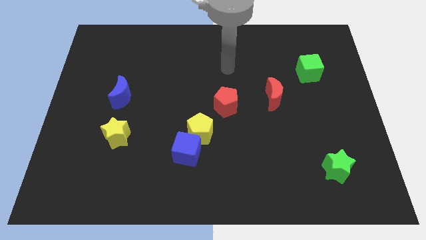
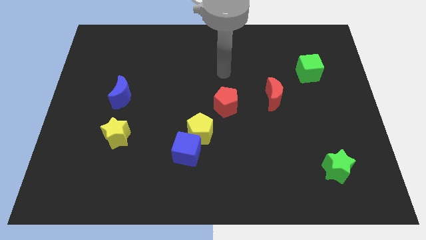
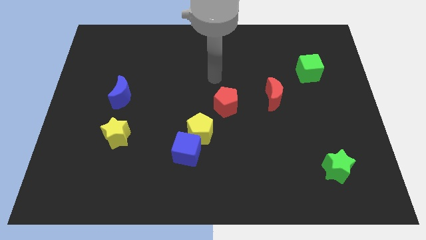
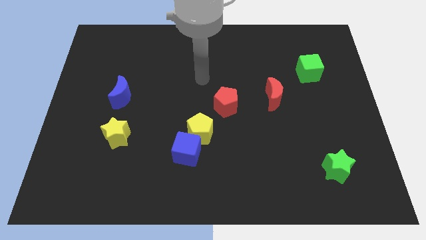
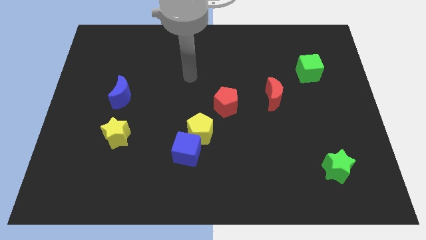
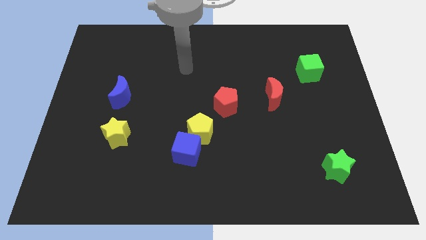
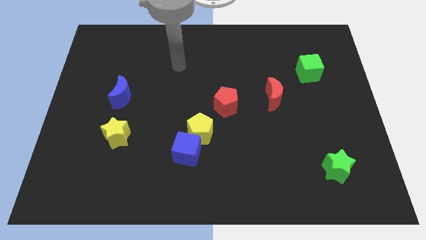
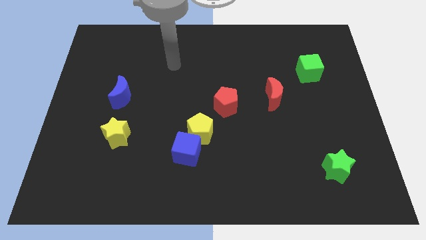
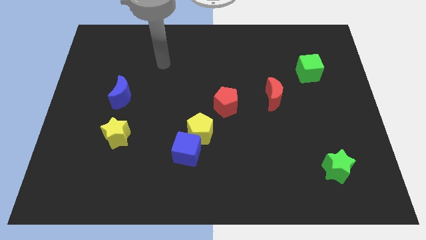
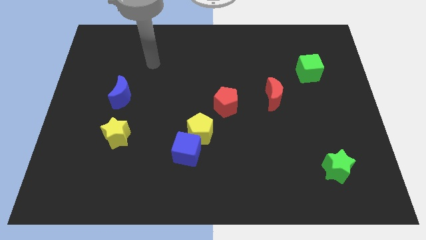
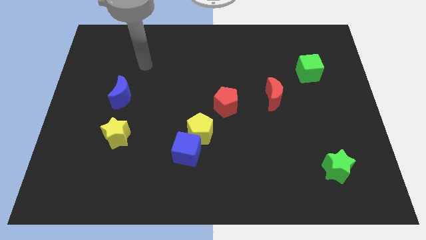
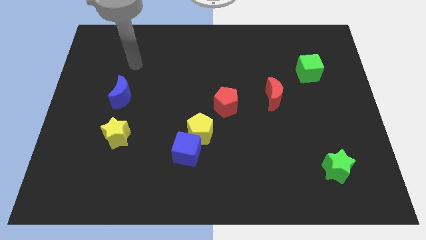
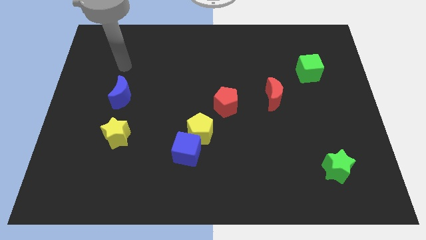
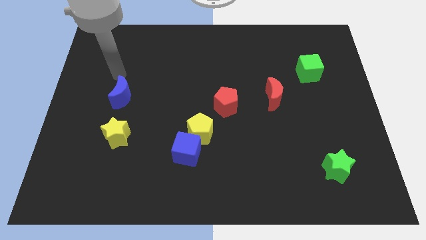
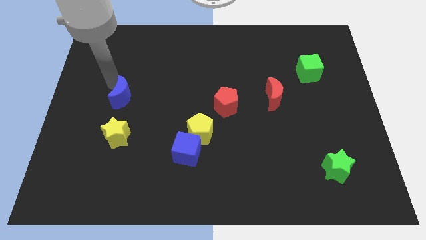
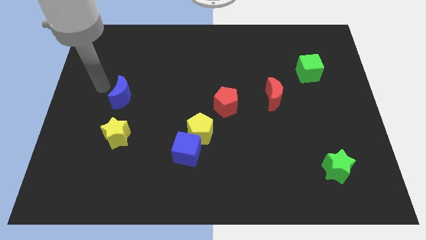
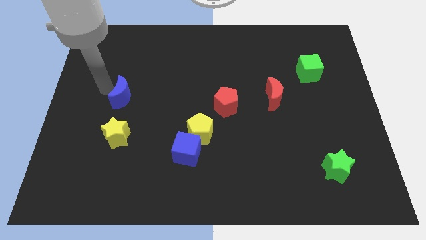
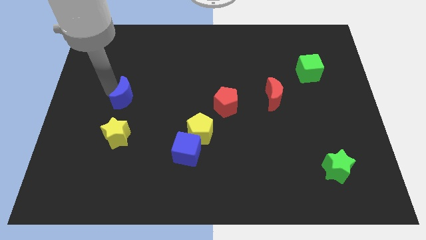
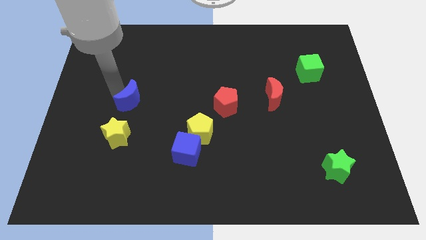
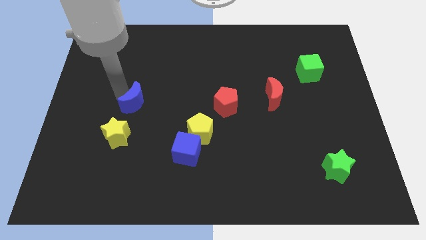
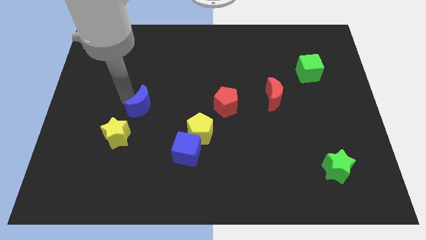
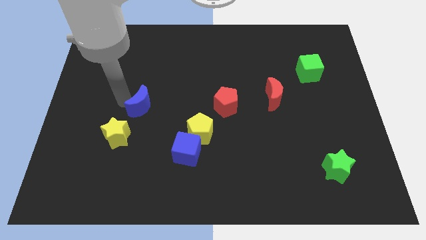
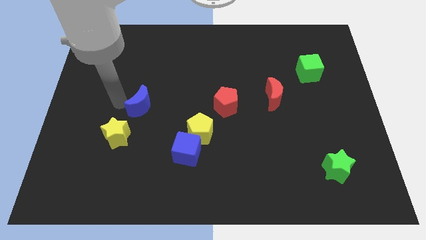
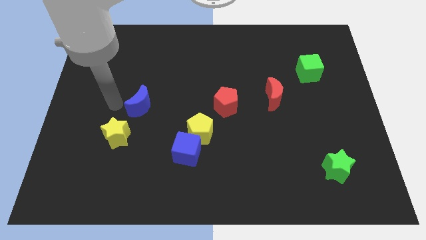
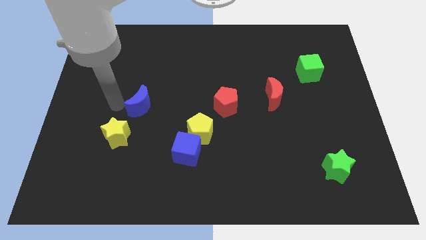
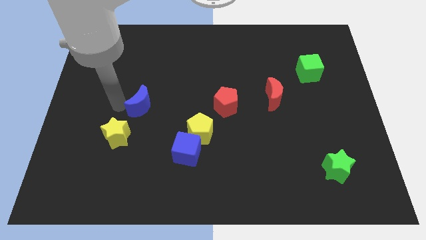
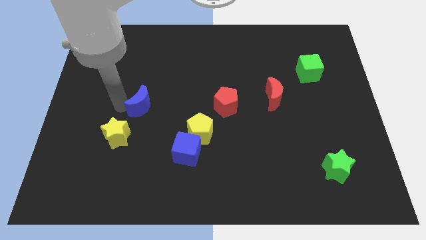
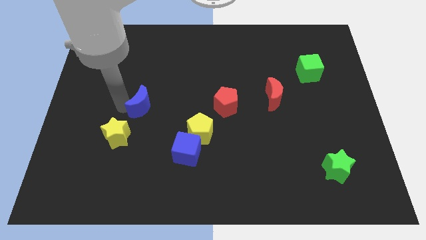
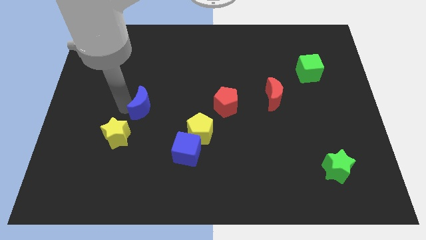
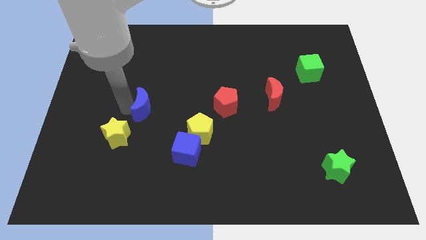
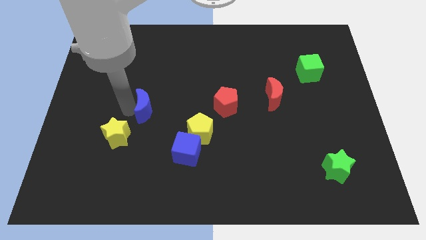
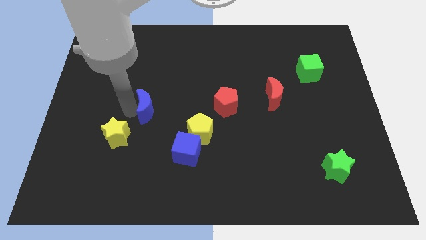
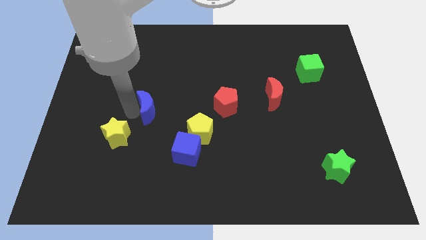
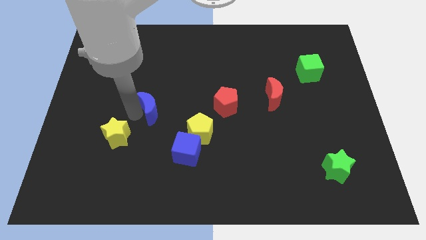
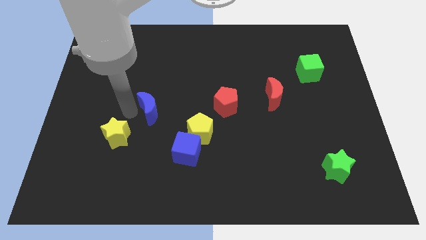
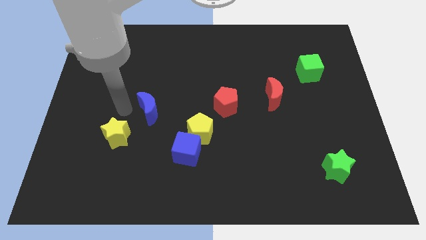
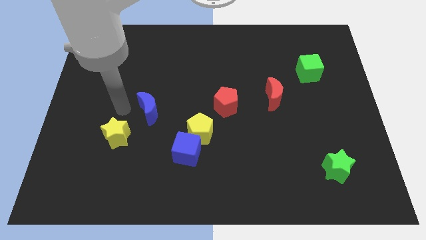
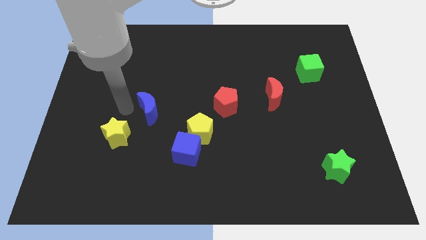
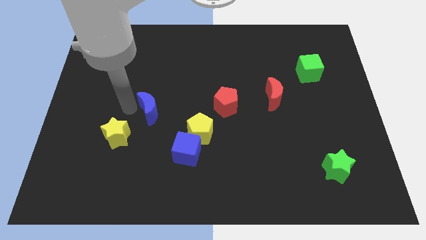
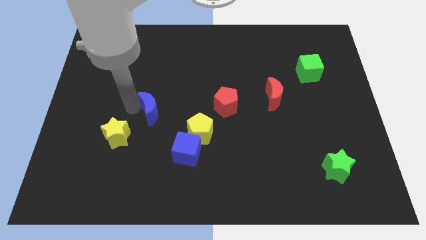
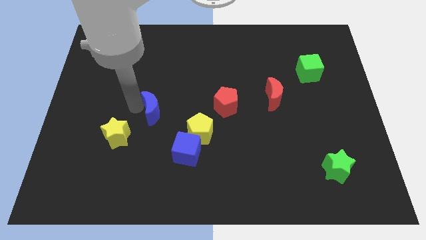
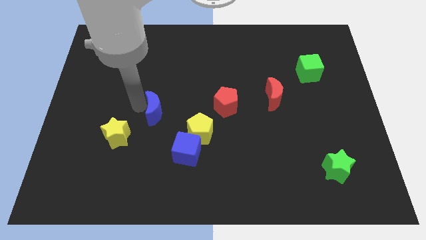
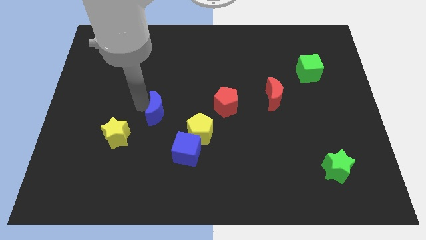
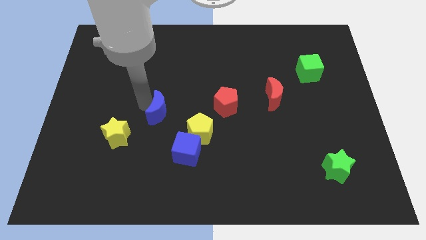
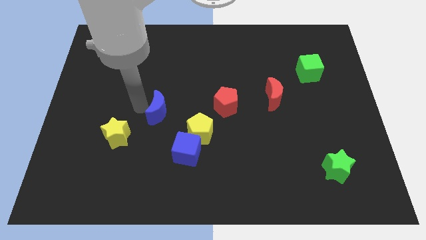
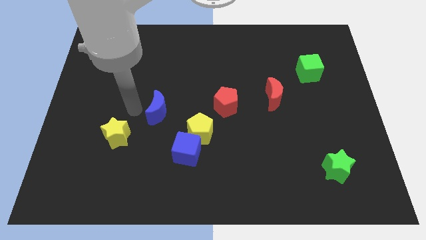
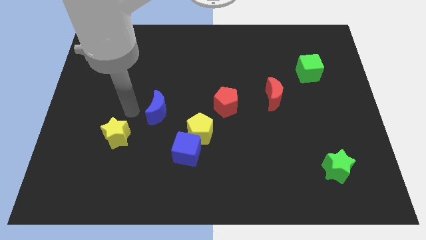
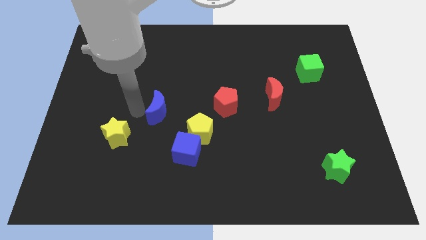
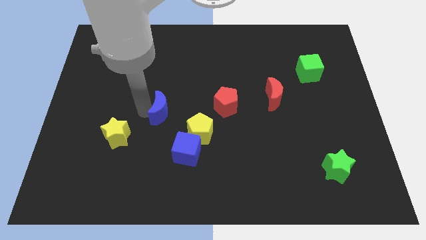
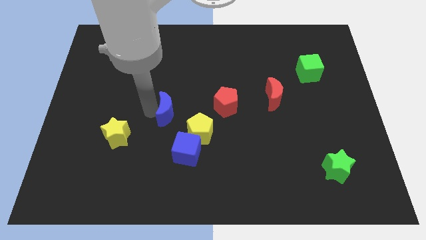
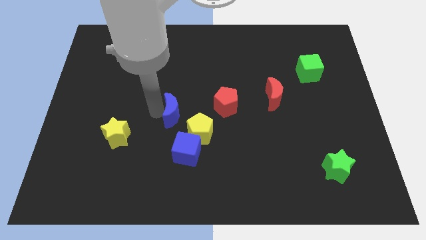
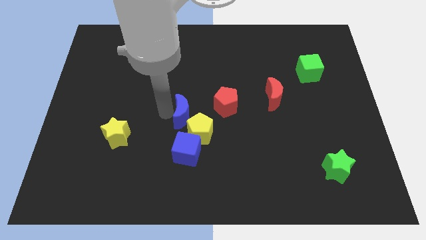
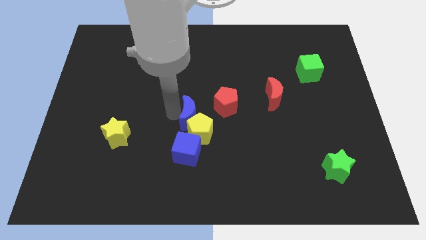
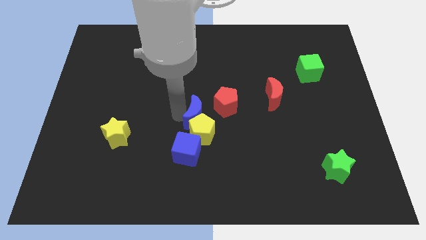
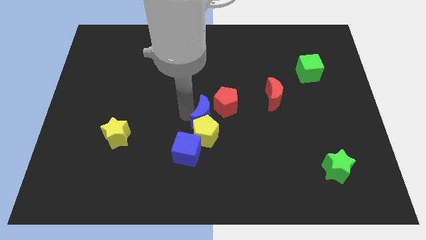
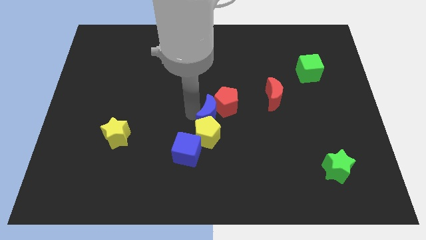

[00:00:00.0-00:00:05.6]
slide the blue moon to the bottom of the red pentagon

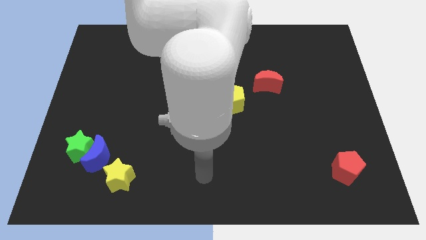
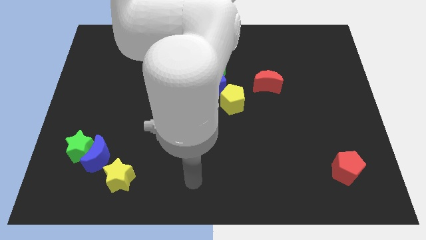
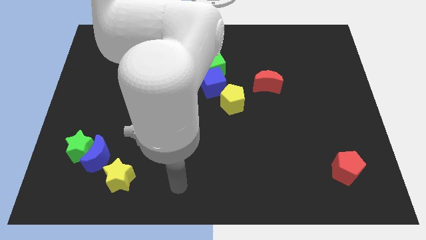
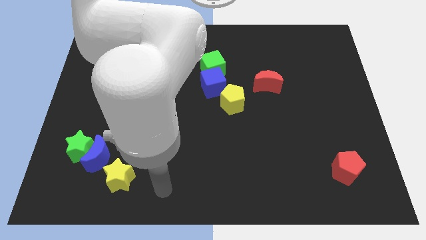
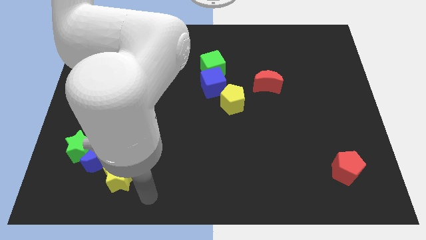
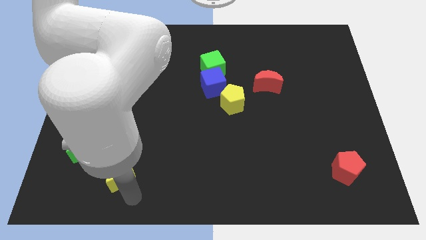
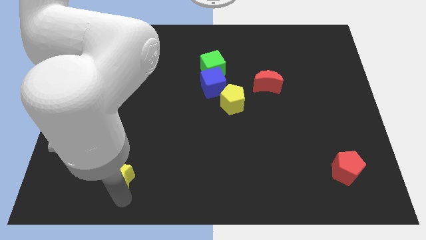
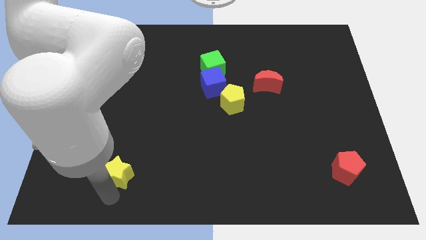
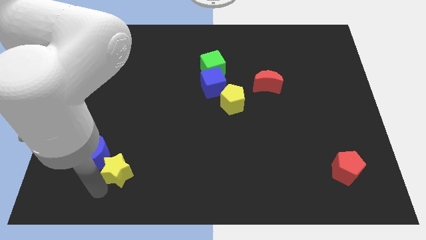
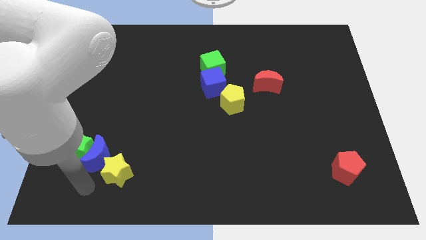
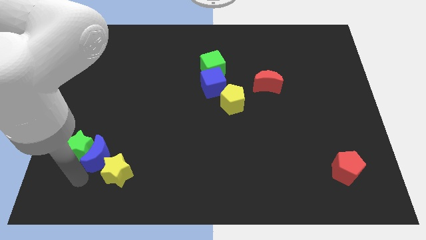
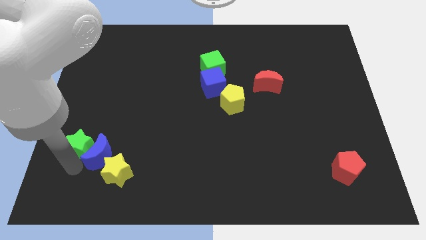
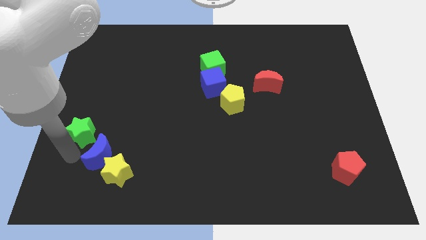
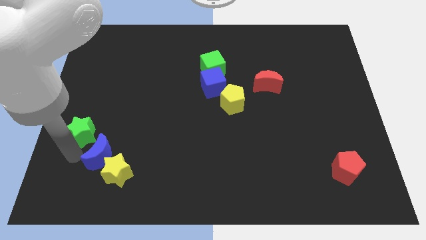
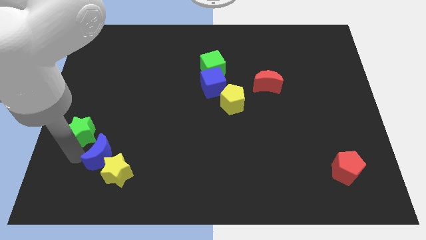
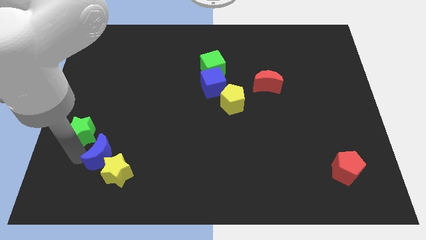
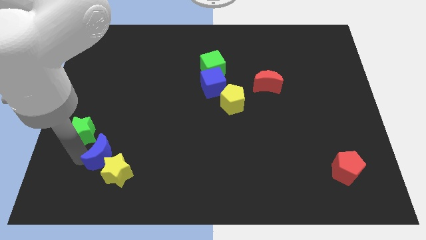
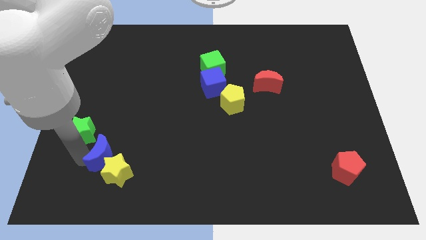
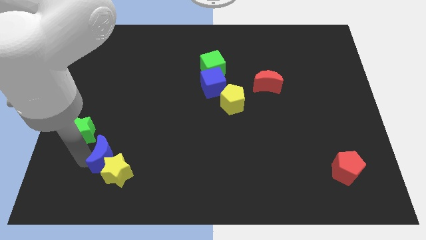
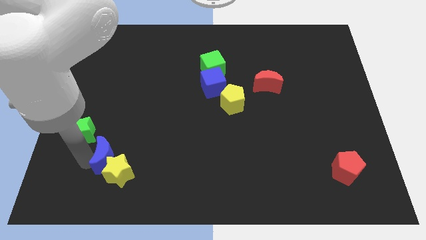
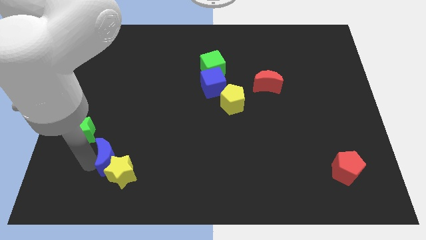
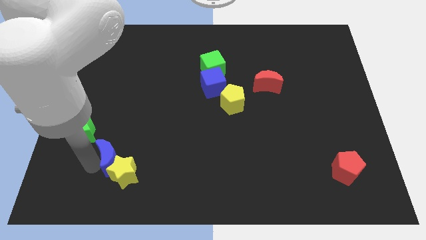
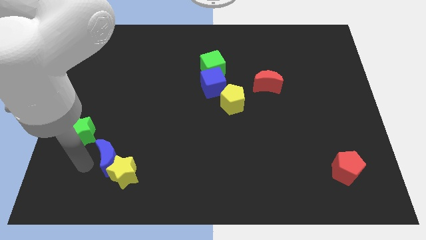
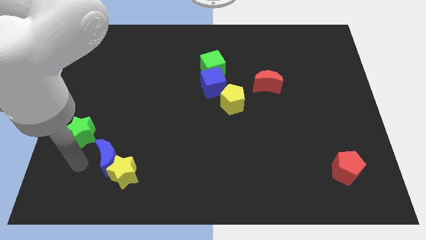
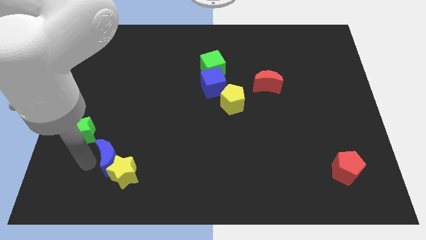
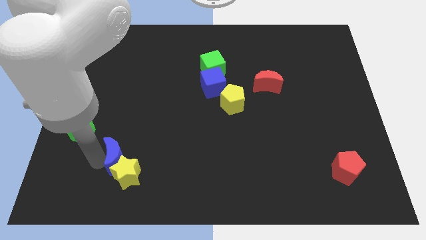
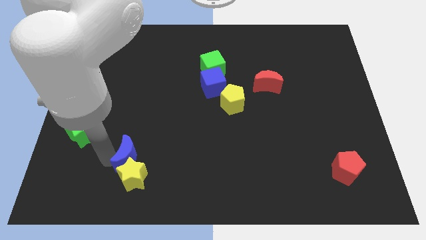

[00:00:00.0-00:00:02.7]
put the blue moon diagonally up and to the right of the yellow star
